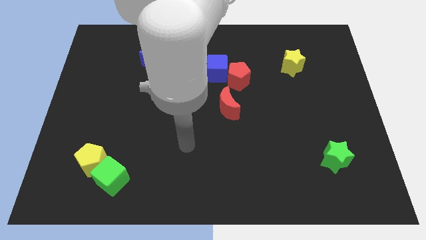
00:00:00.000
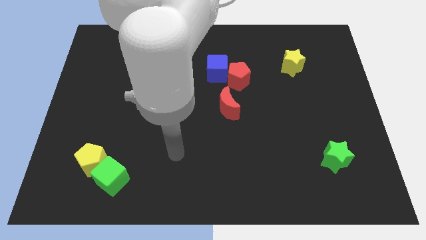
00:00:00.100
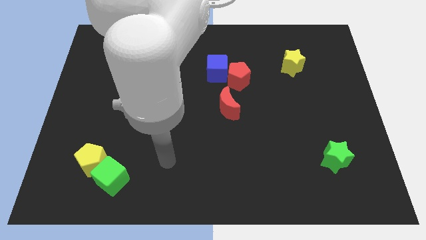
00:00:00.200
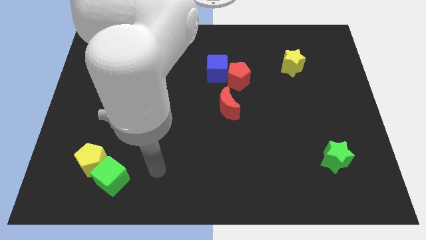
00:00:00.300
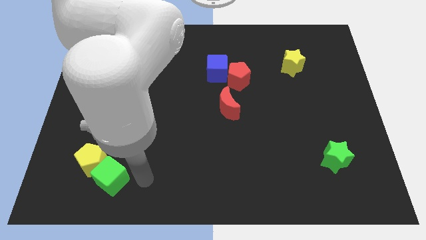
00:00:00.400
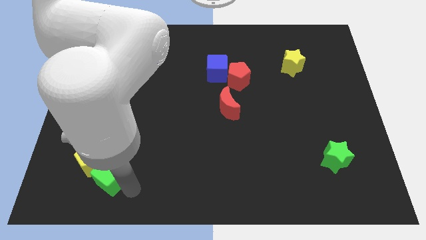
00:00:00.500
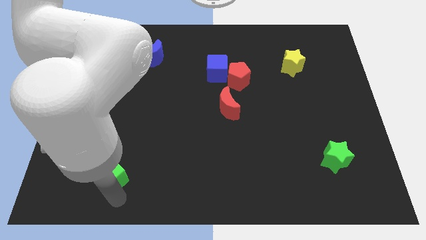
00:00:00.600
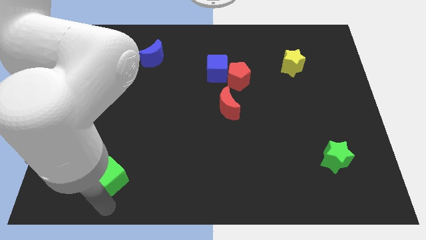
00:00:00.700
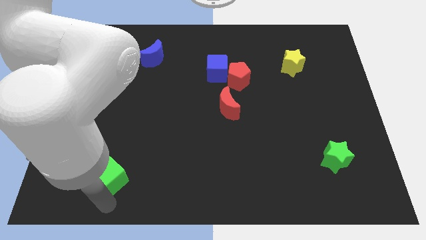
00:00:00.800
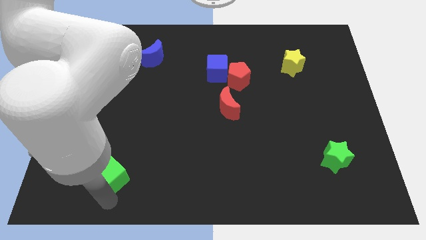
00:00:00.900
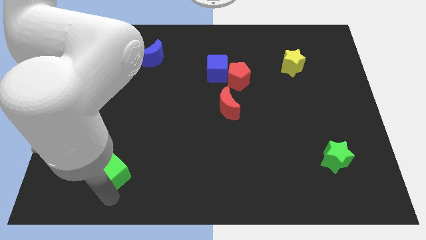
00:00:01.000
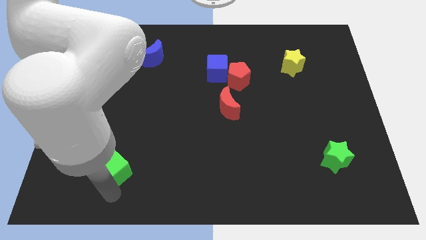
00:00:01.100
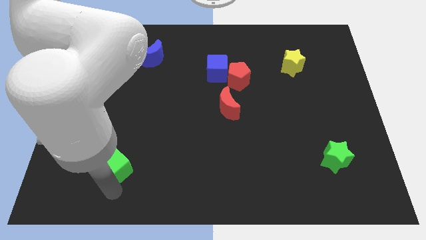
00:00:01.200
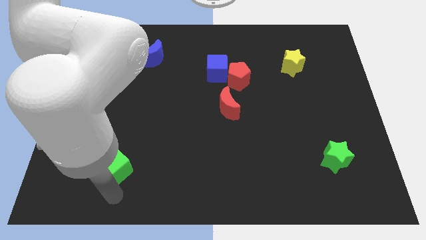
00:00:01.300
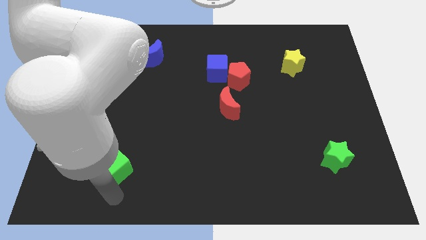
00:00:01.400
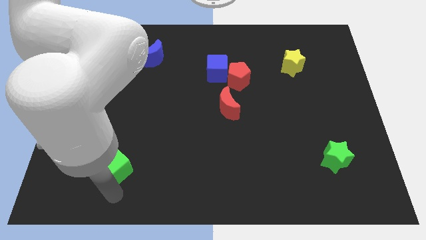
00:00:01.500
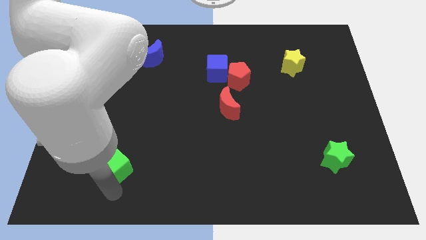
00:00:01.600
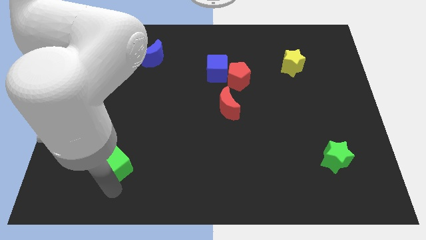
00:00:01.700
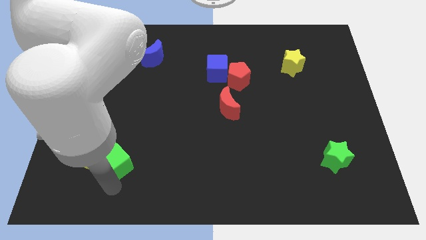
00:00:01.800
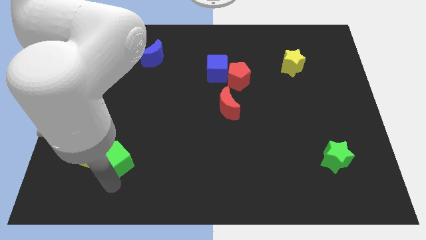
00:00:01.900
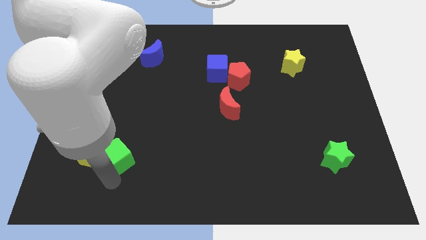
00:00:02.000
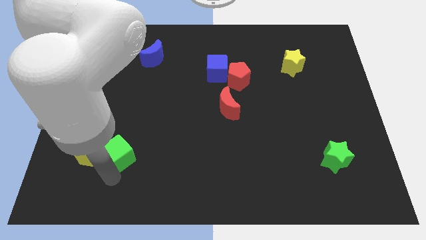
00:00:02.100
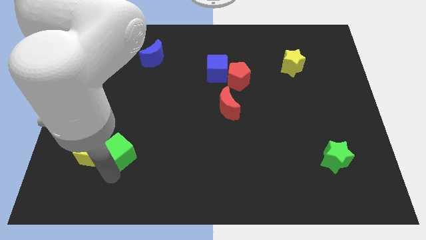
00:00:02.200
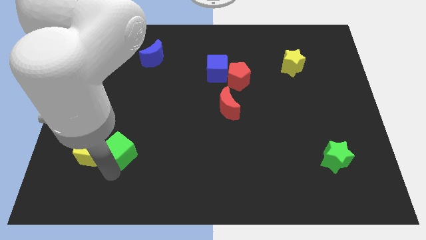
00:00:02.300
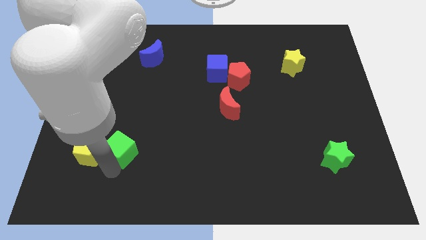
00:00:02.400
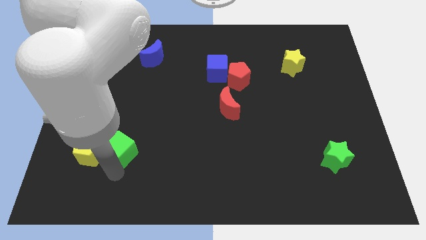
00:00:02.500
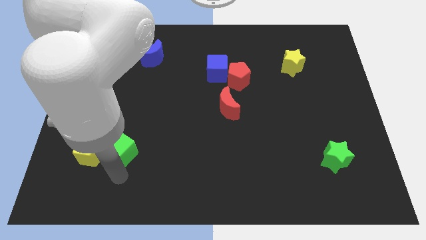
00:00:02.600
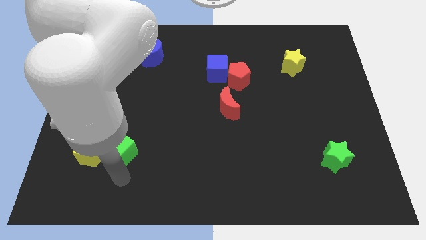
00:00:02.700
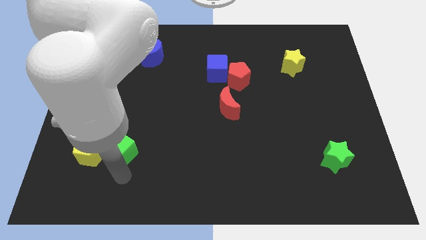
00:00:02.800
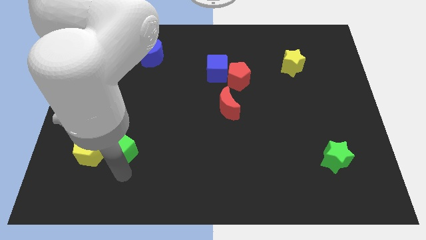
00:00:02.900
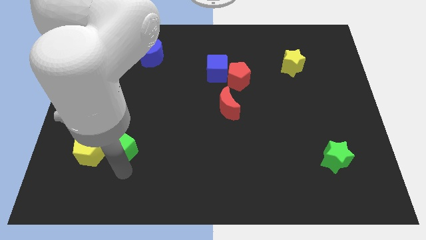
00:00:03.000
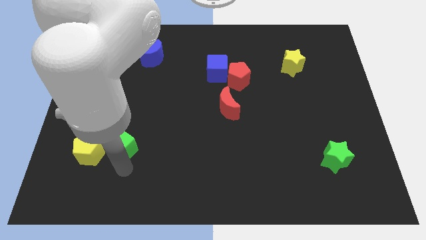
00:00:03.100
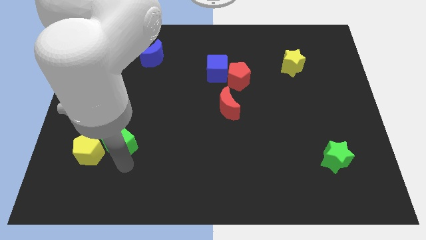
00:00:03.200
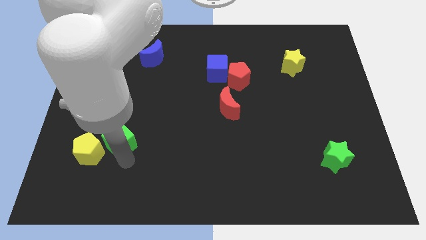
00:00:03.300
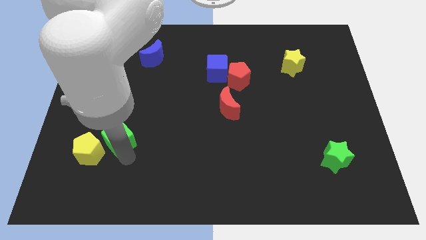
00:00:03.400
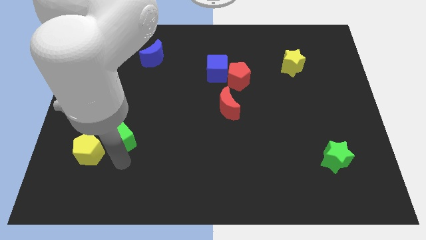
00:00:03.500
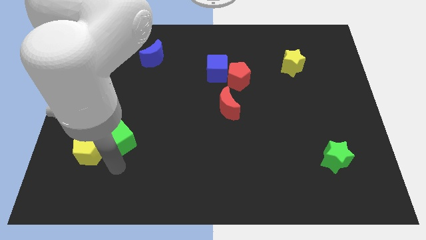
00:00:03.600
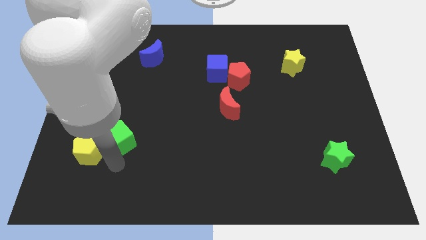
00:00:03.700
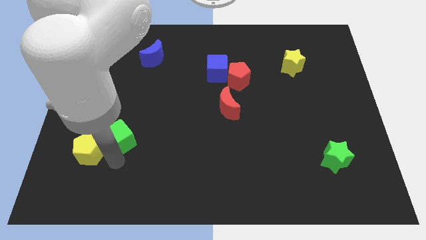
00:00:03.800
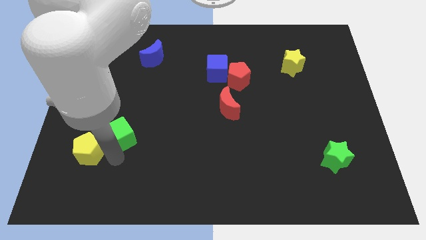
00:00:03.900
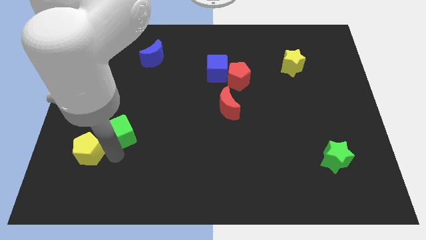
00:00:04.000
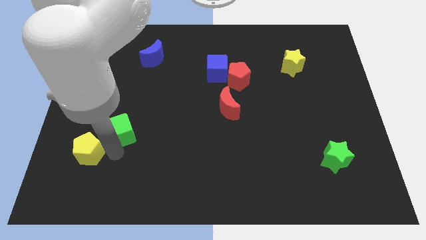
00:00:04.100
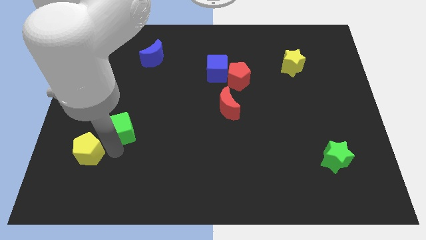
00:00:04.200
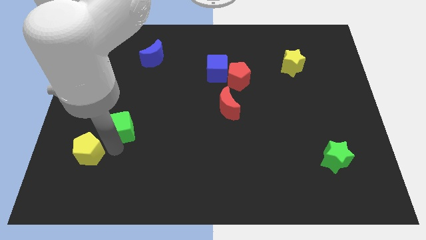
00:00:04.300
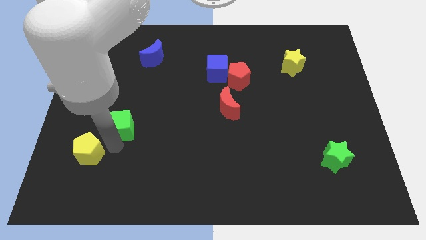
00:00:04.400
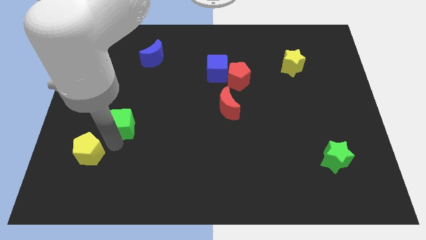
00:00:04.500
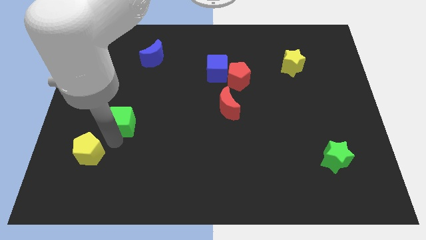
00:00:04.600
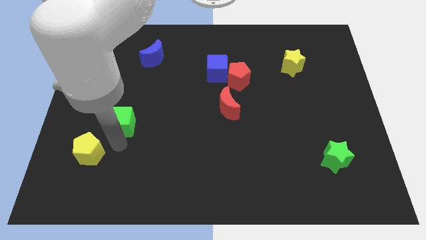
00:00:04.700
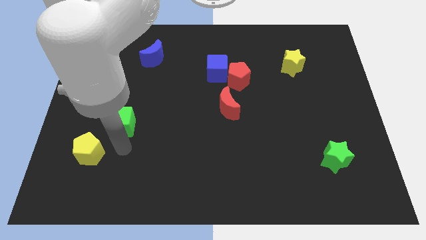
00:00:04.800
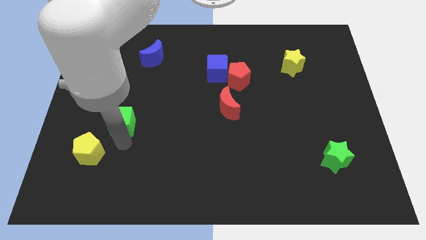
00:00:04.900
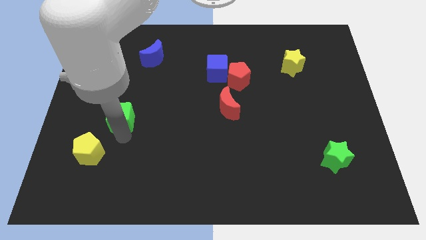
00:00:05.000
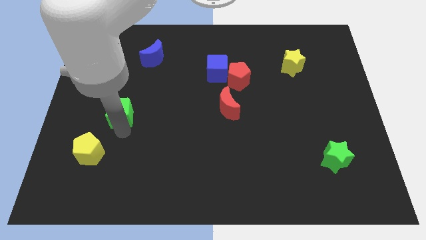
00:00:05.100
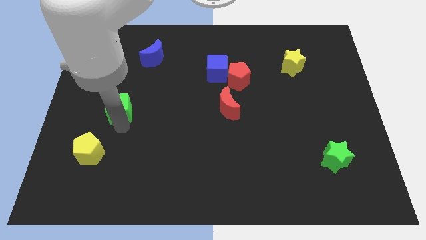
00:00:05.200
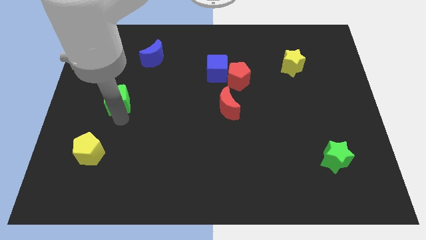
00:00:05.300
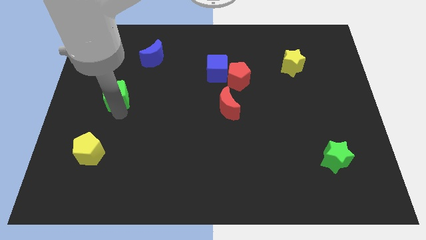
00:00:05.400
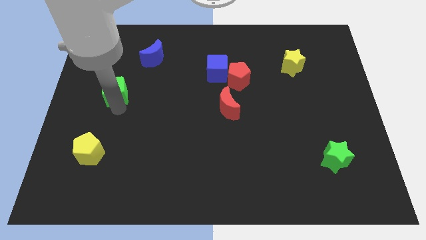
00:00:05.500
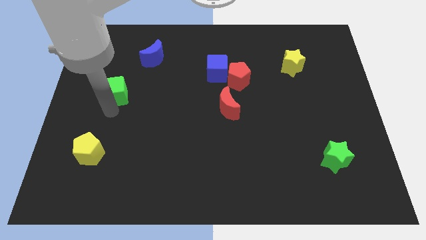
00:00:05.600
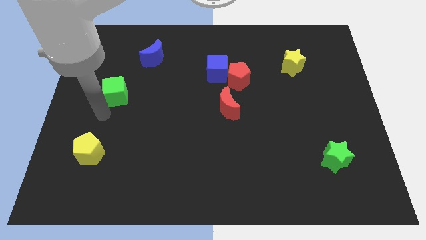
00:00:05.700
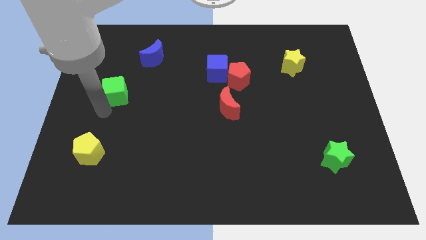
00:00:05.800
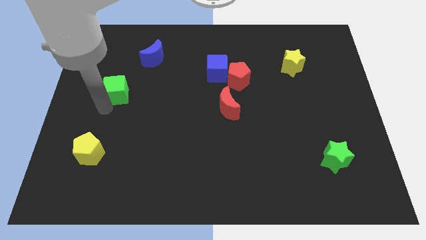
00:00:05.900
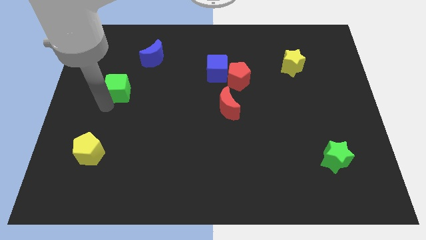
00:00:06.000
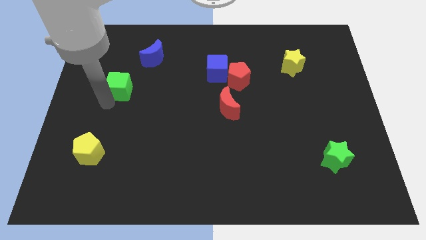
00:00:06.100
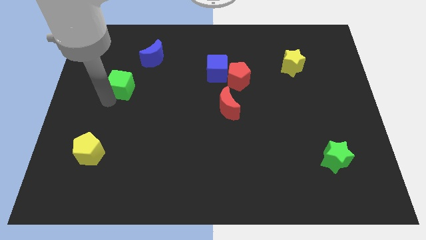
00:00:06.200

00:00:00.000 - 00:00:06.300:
put the green cube diagonally down and to the left of the blue moon

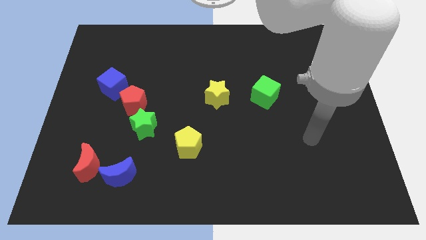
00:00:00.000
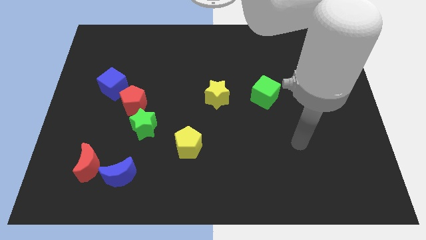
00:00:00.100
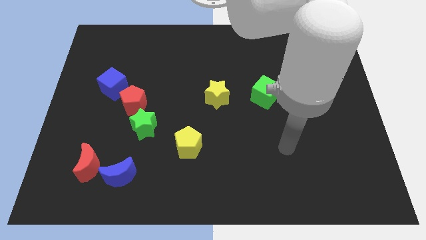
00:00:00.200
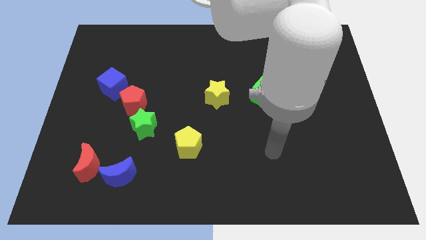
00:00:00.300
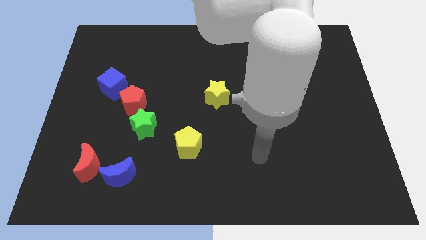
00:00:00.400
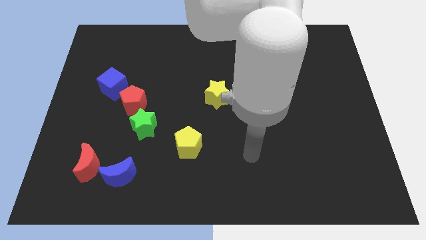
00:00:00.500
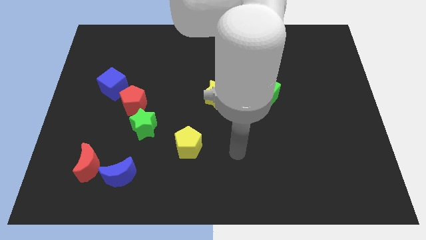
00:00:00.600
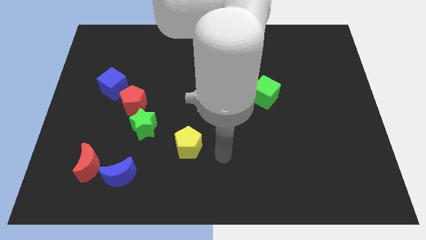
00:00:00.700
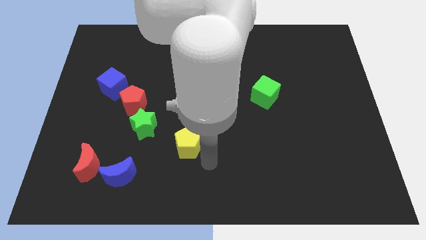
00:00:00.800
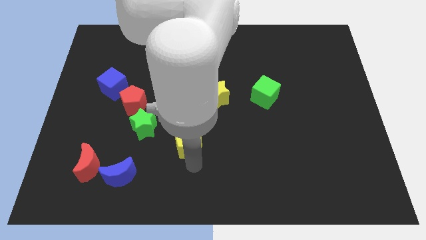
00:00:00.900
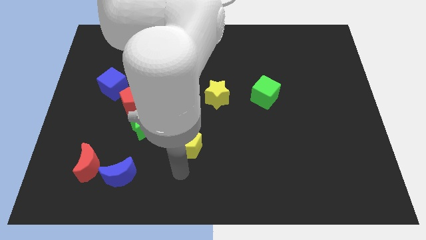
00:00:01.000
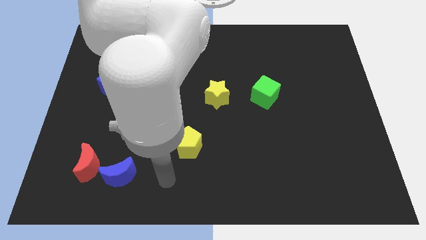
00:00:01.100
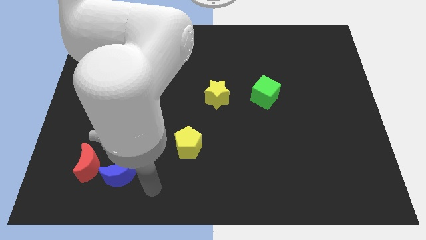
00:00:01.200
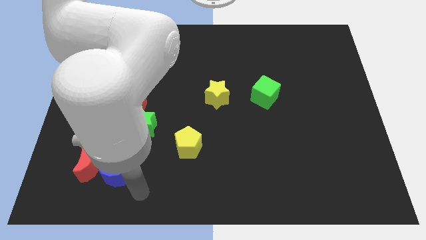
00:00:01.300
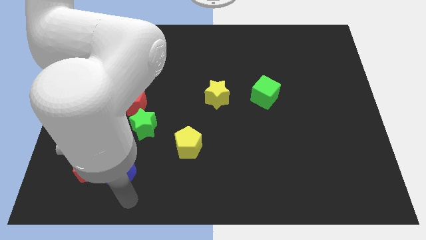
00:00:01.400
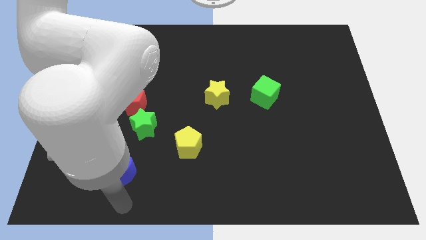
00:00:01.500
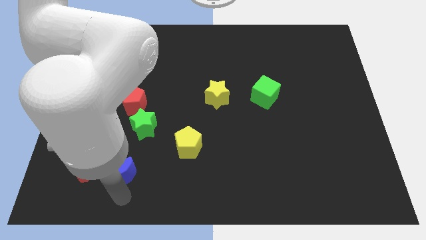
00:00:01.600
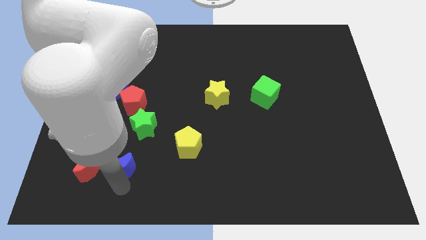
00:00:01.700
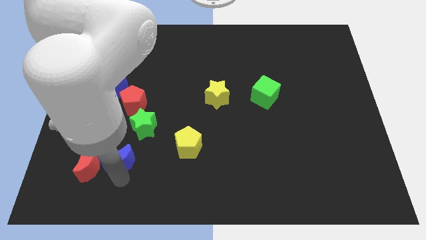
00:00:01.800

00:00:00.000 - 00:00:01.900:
push the blue moon to the top right of the red moon
